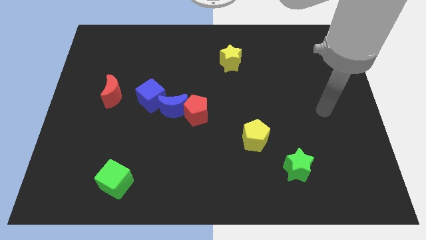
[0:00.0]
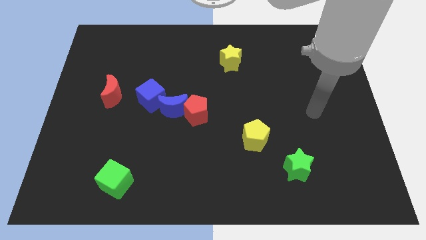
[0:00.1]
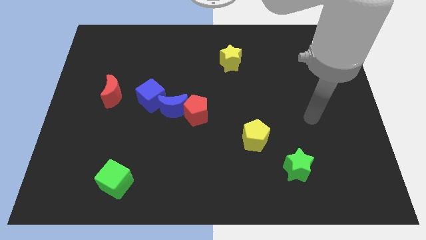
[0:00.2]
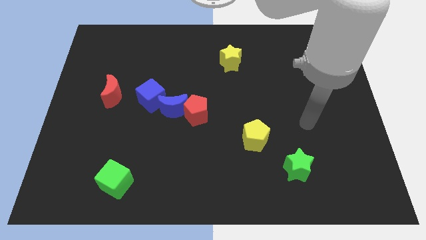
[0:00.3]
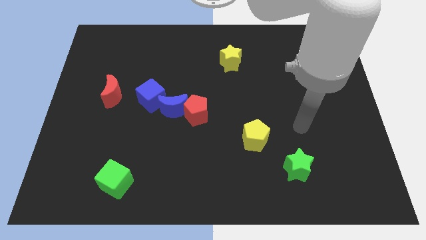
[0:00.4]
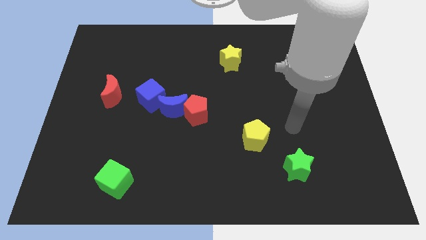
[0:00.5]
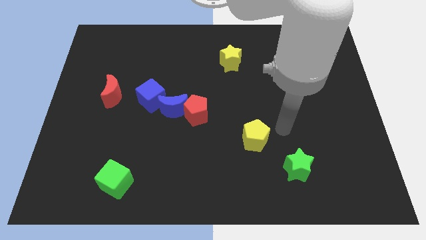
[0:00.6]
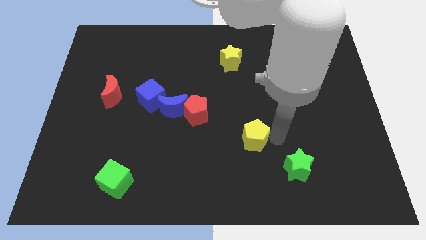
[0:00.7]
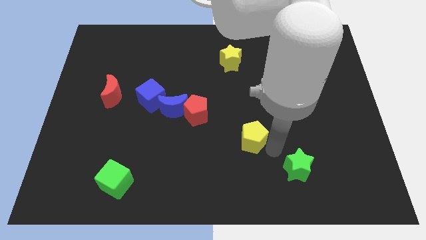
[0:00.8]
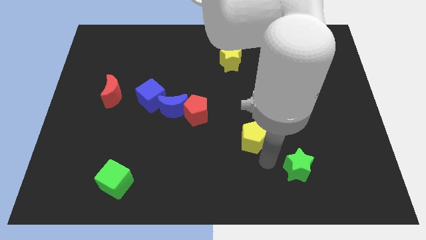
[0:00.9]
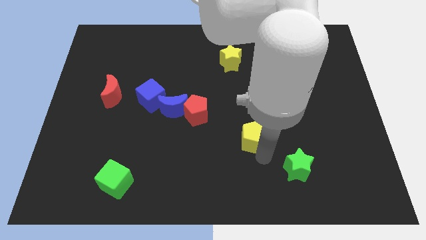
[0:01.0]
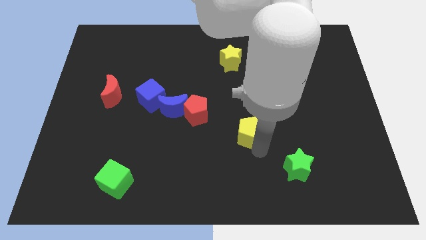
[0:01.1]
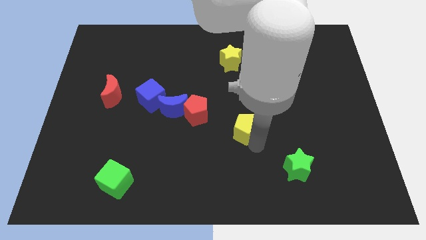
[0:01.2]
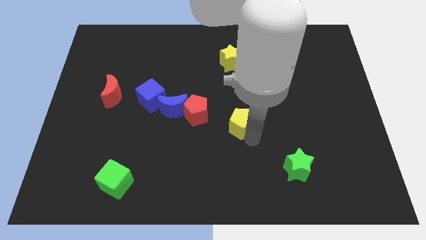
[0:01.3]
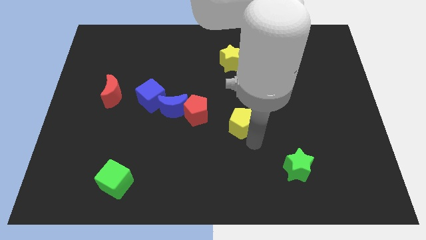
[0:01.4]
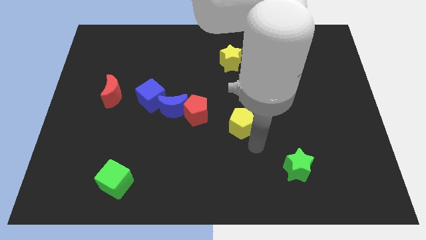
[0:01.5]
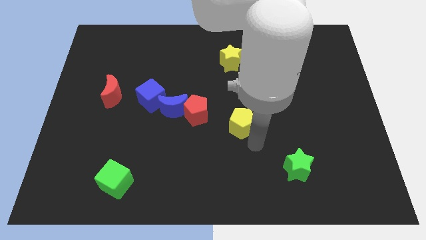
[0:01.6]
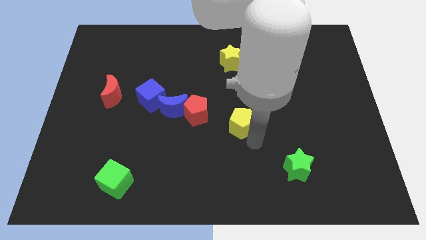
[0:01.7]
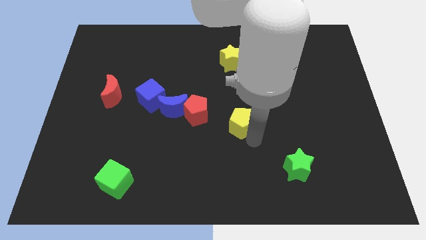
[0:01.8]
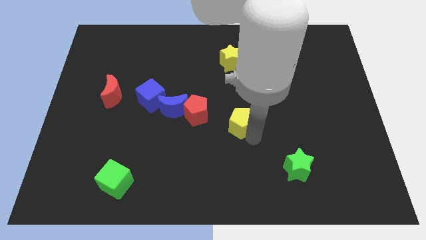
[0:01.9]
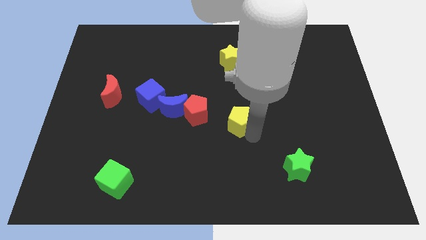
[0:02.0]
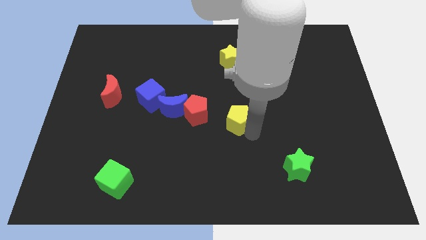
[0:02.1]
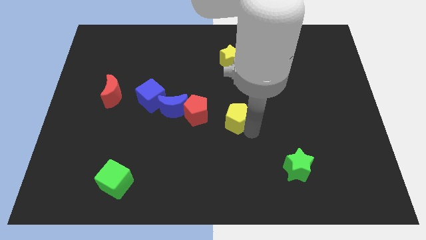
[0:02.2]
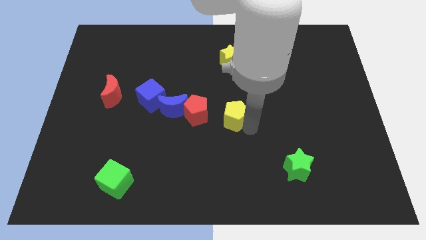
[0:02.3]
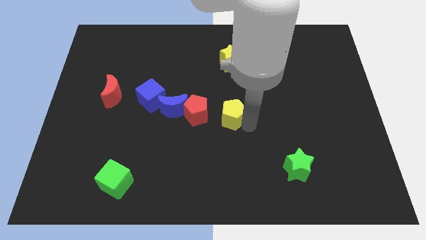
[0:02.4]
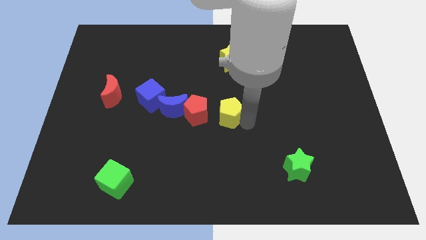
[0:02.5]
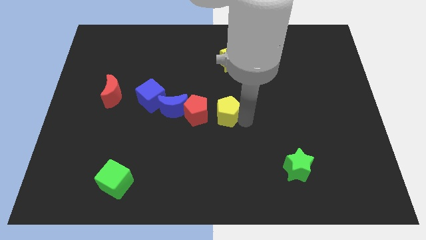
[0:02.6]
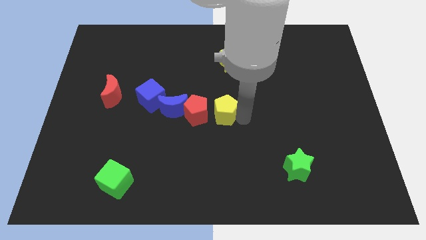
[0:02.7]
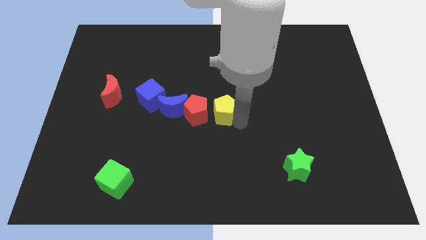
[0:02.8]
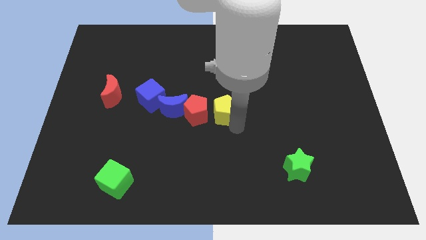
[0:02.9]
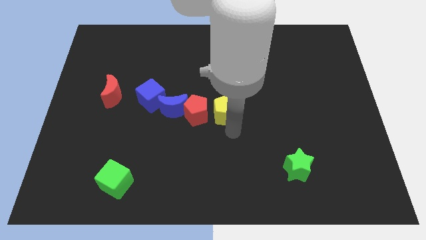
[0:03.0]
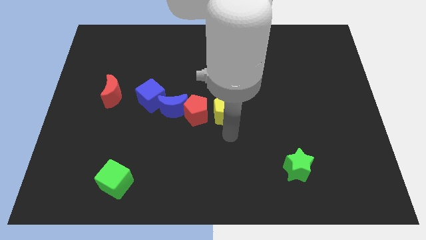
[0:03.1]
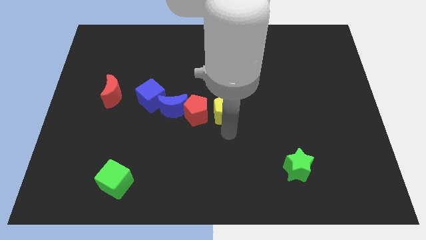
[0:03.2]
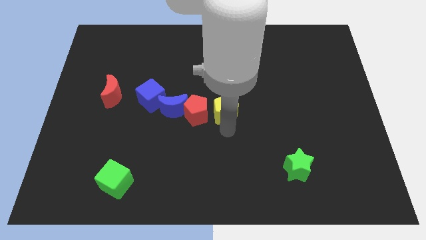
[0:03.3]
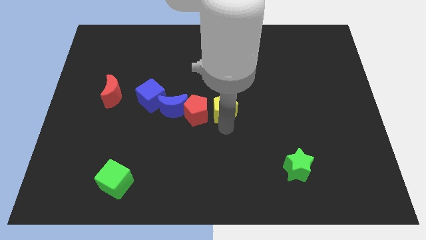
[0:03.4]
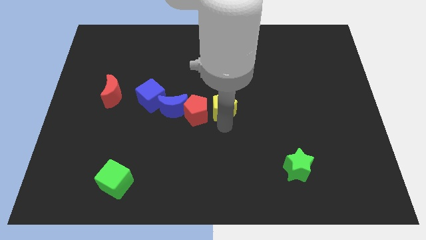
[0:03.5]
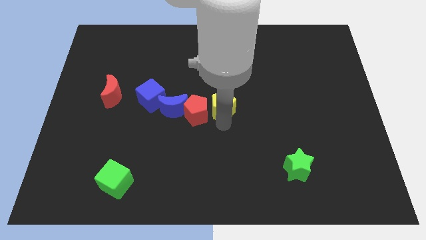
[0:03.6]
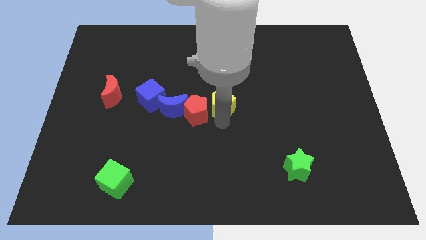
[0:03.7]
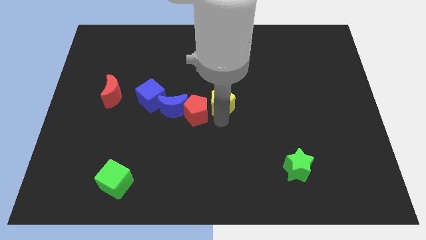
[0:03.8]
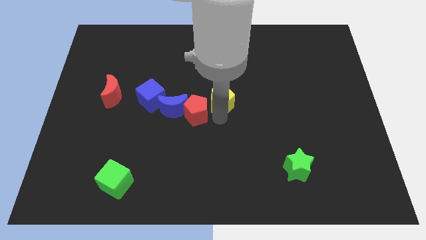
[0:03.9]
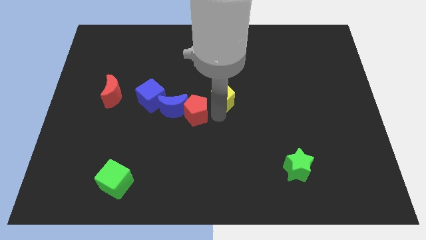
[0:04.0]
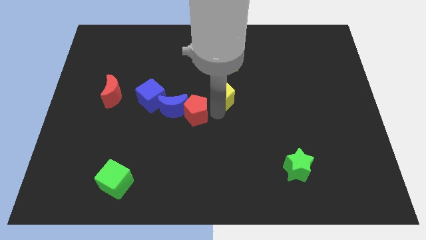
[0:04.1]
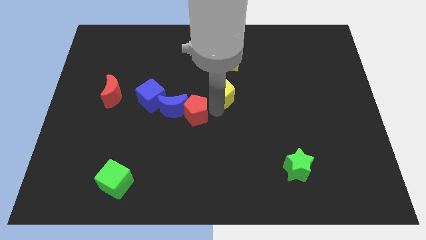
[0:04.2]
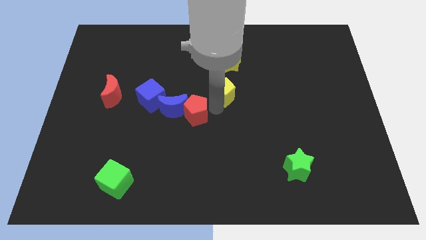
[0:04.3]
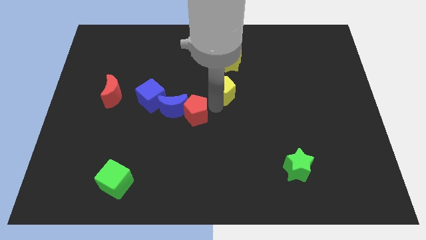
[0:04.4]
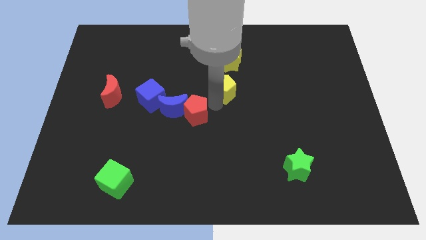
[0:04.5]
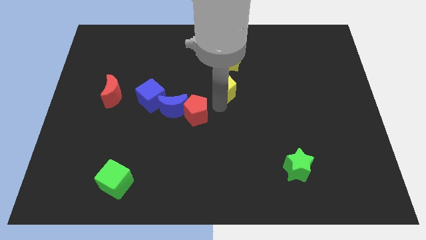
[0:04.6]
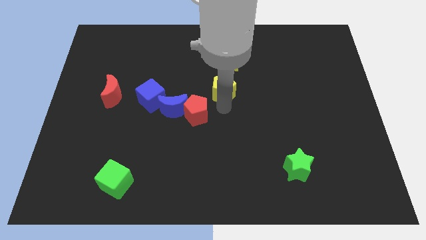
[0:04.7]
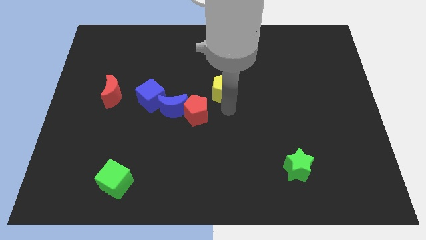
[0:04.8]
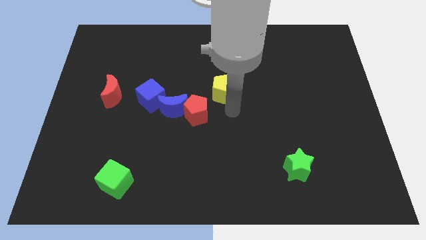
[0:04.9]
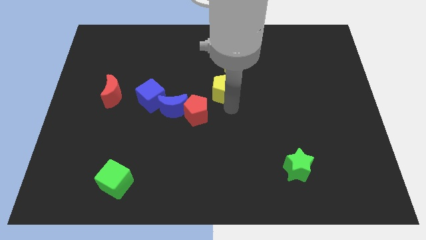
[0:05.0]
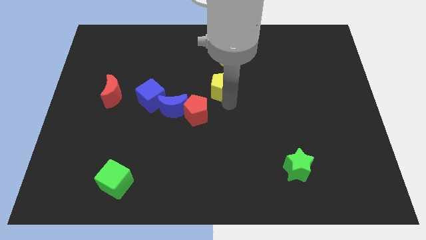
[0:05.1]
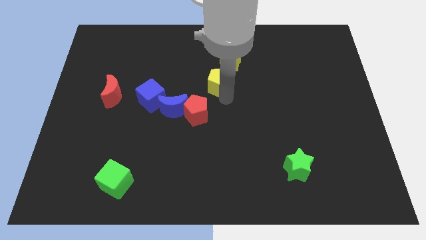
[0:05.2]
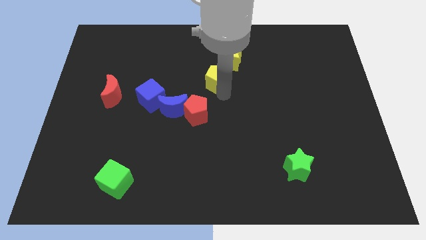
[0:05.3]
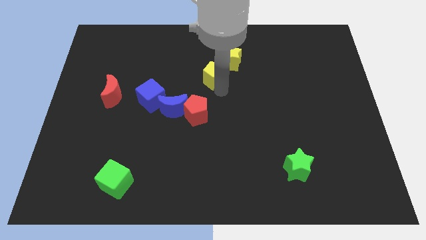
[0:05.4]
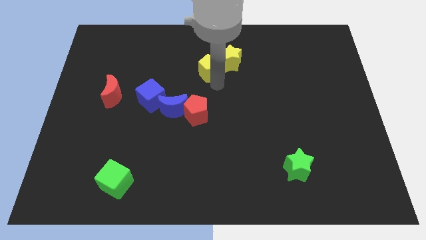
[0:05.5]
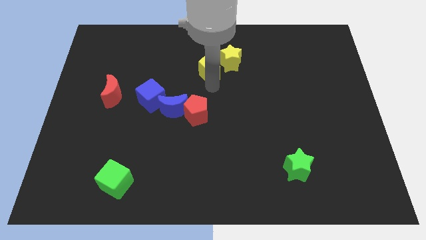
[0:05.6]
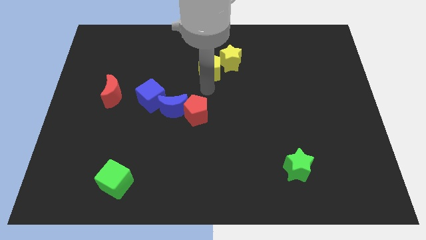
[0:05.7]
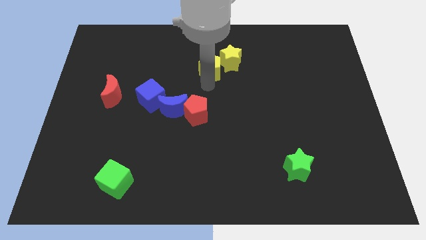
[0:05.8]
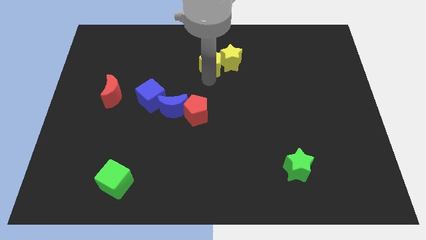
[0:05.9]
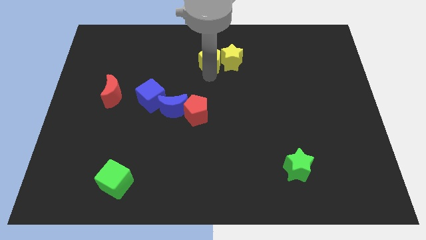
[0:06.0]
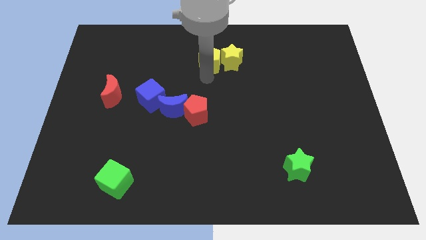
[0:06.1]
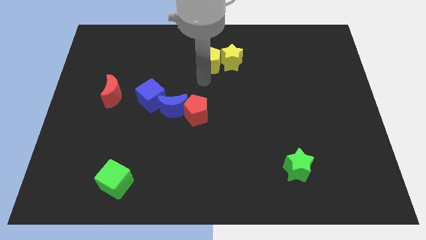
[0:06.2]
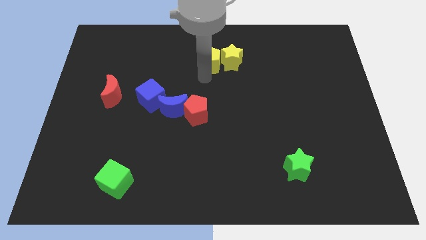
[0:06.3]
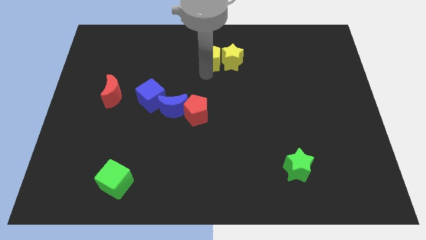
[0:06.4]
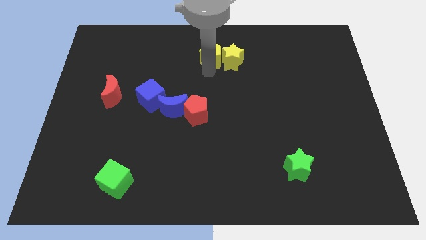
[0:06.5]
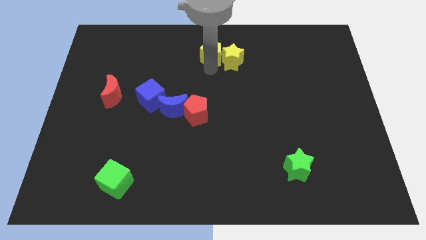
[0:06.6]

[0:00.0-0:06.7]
move the yellow pentagon to the top side
